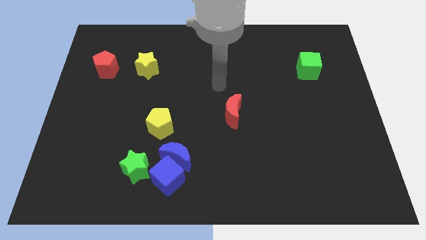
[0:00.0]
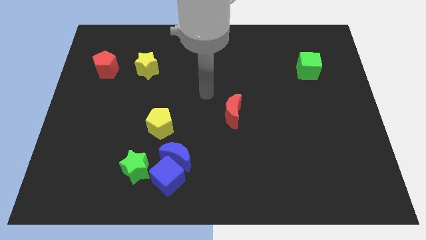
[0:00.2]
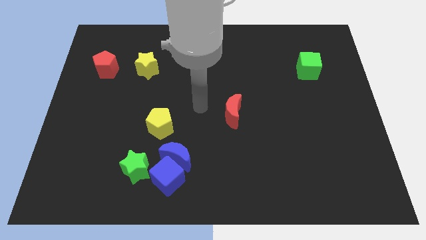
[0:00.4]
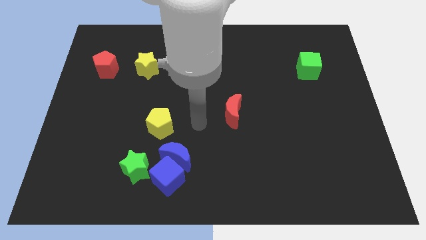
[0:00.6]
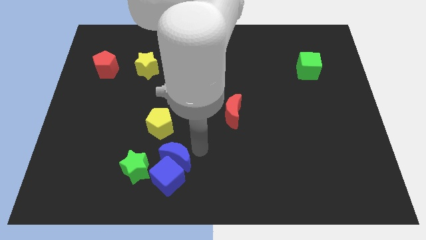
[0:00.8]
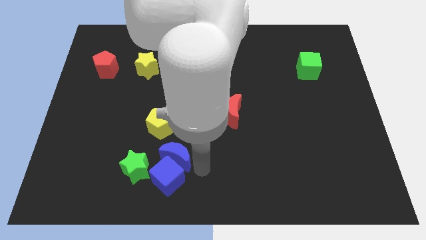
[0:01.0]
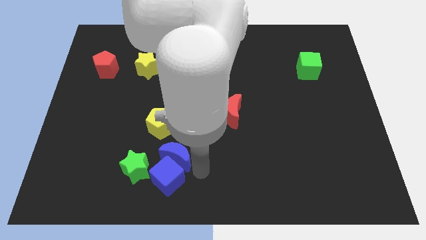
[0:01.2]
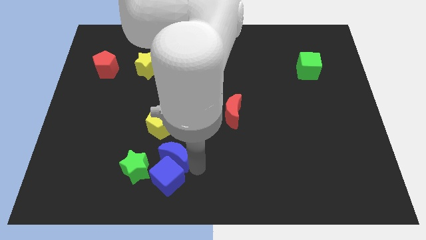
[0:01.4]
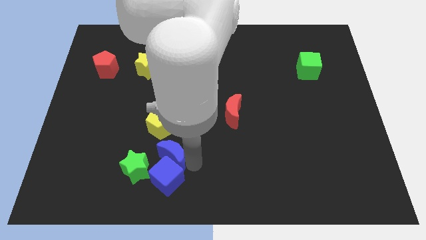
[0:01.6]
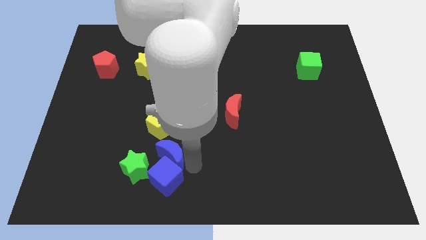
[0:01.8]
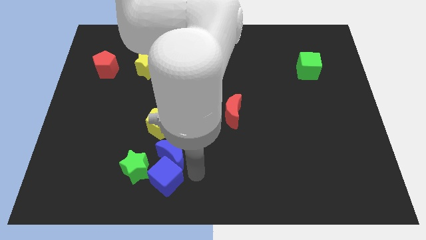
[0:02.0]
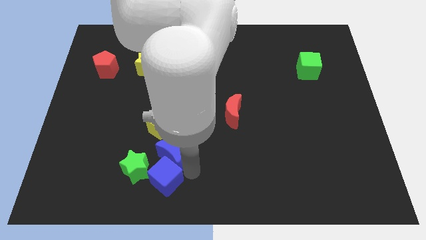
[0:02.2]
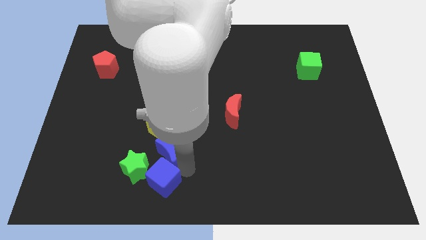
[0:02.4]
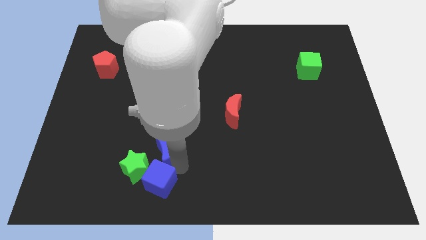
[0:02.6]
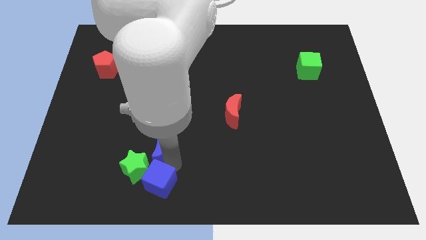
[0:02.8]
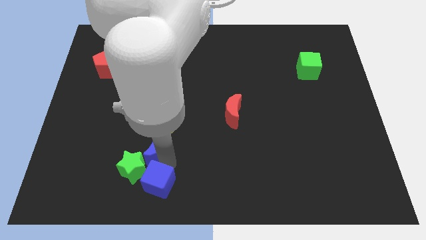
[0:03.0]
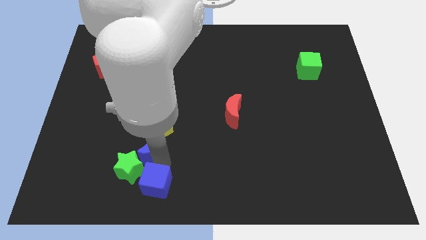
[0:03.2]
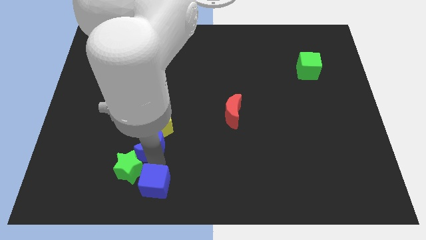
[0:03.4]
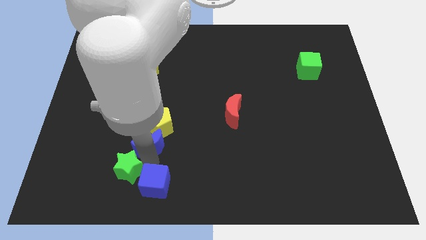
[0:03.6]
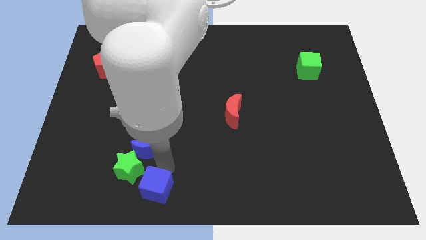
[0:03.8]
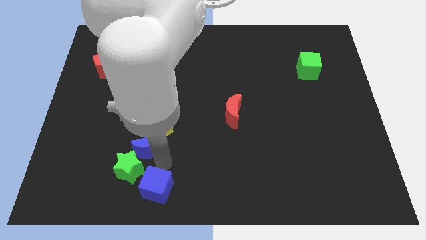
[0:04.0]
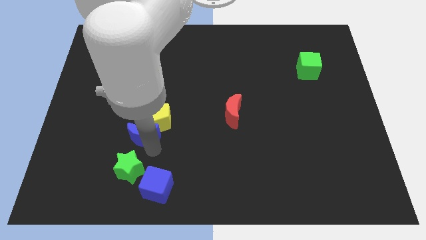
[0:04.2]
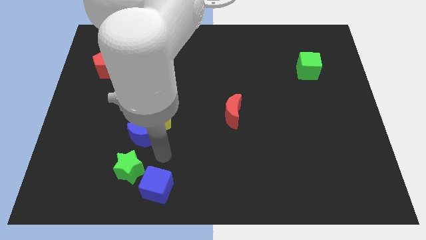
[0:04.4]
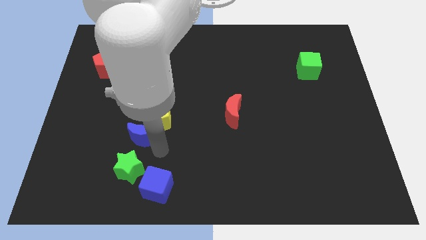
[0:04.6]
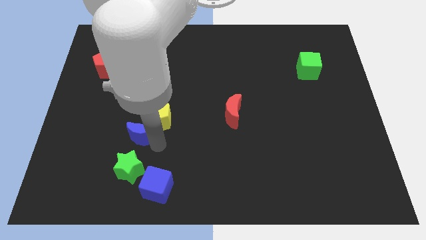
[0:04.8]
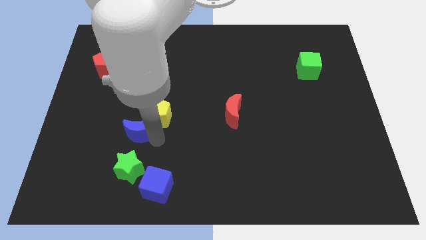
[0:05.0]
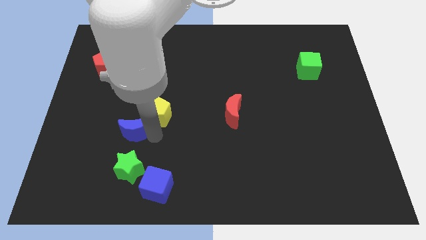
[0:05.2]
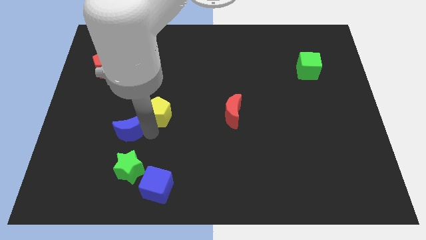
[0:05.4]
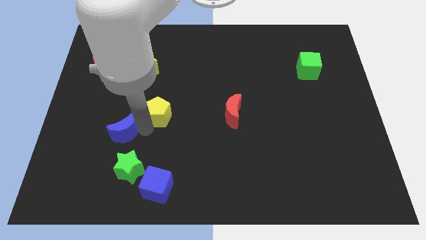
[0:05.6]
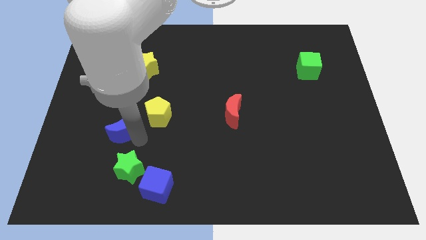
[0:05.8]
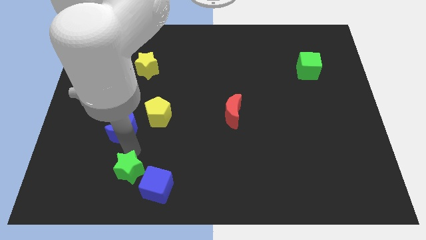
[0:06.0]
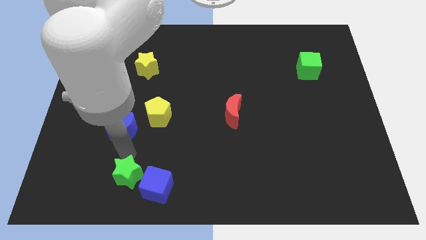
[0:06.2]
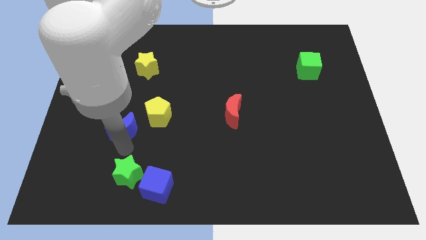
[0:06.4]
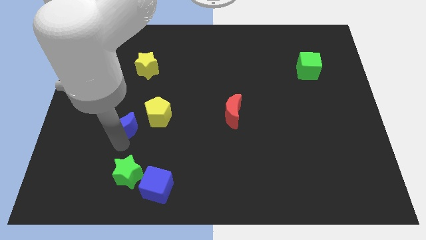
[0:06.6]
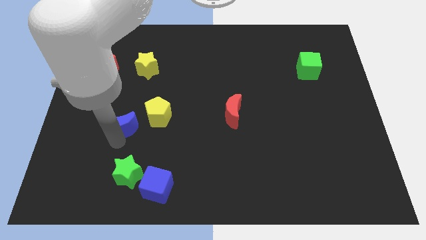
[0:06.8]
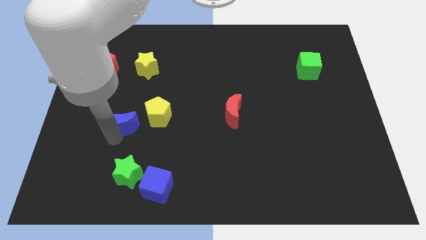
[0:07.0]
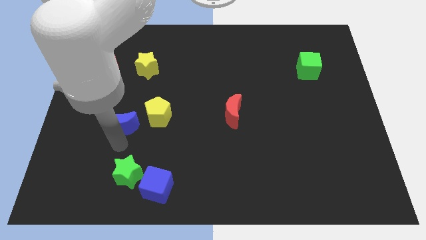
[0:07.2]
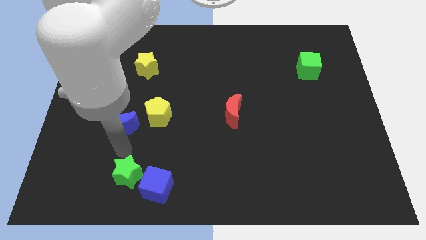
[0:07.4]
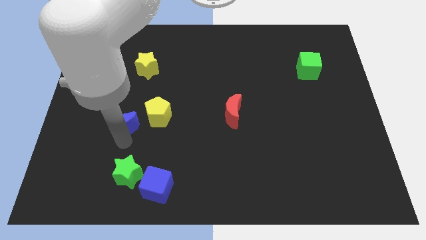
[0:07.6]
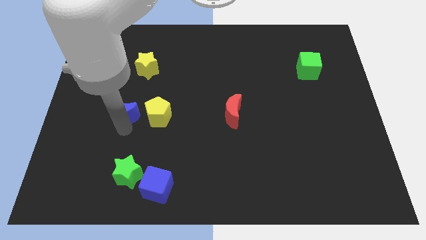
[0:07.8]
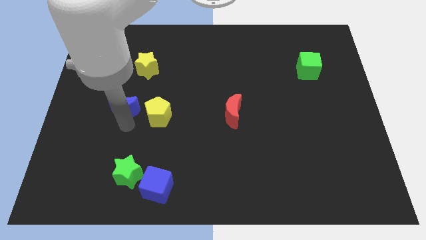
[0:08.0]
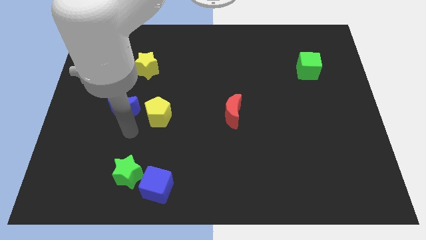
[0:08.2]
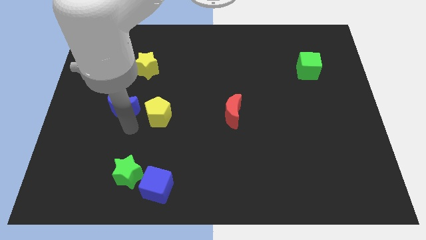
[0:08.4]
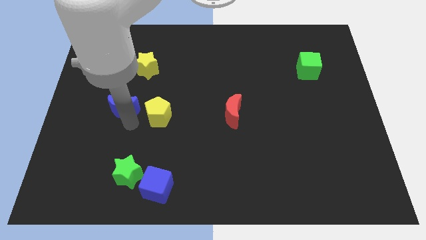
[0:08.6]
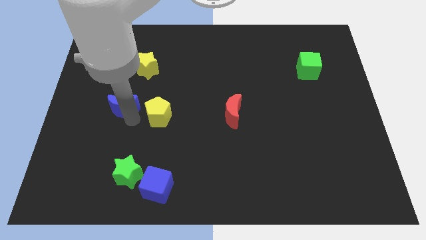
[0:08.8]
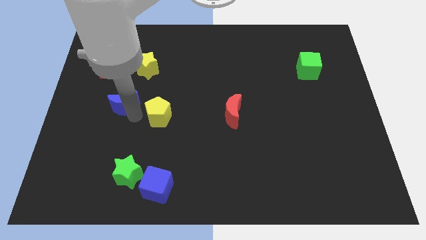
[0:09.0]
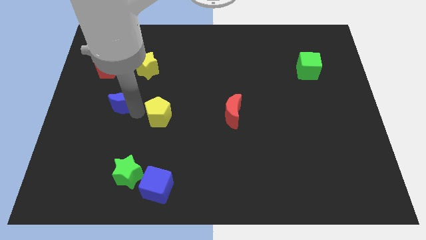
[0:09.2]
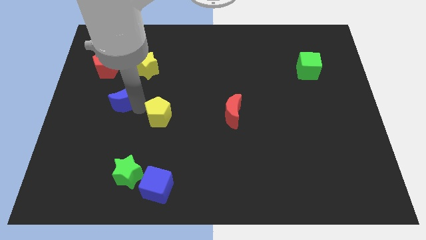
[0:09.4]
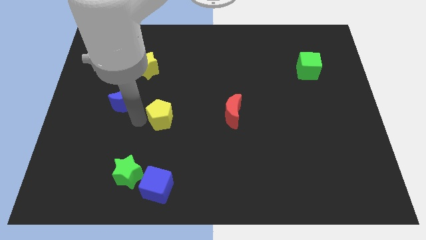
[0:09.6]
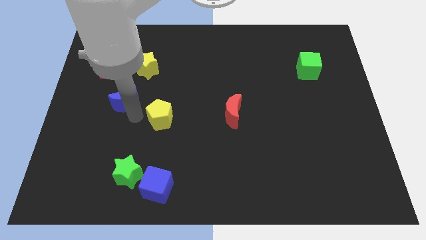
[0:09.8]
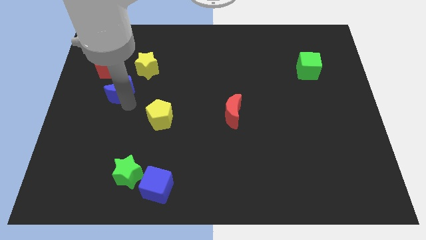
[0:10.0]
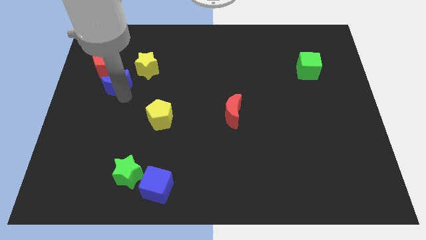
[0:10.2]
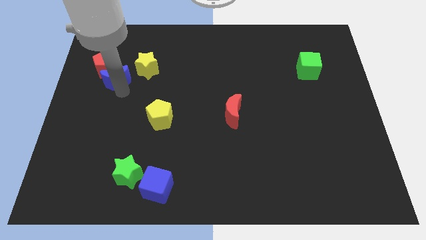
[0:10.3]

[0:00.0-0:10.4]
slide the blue moon to the red pentagon

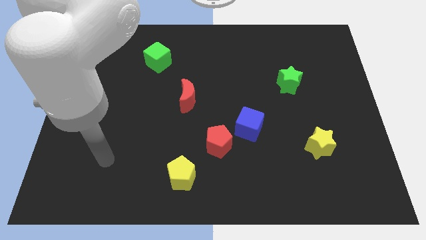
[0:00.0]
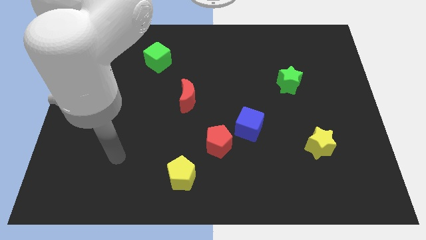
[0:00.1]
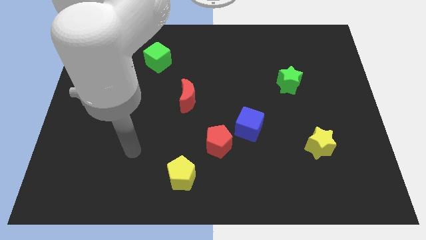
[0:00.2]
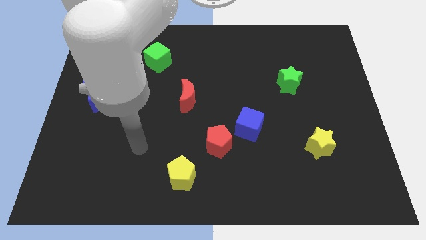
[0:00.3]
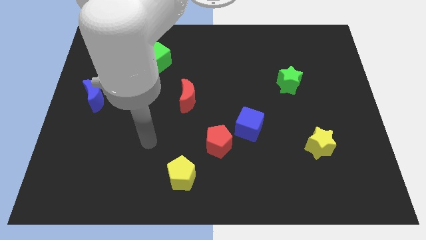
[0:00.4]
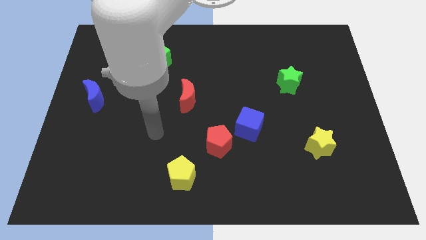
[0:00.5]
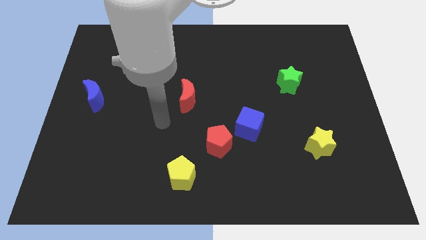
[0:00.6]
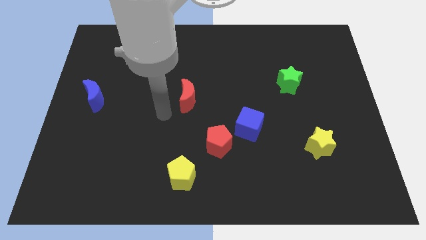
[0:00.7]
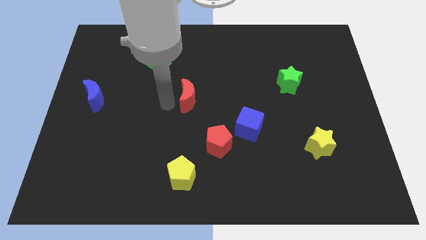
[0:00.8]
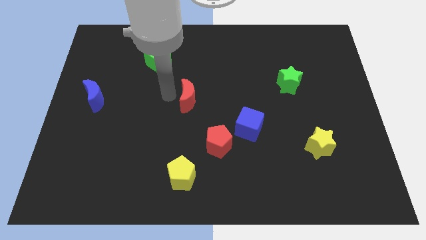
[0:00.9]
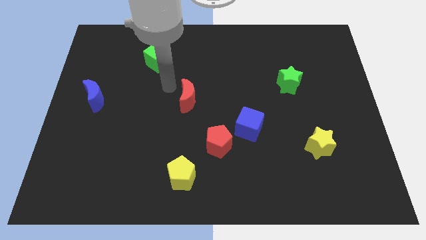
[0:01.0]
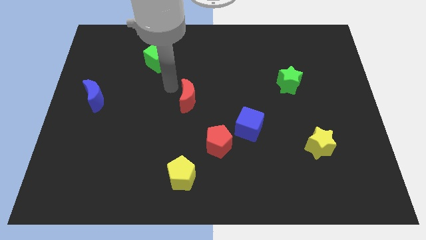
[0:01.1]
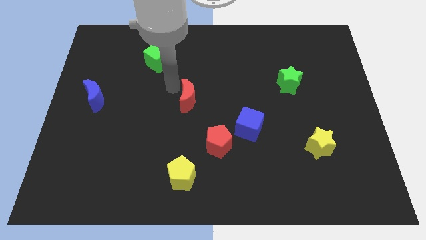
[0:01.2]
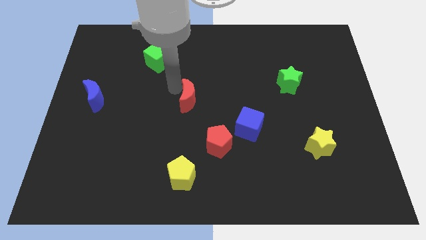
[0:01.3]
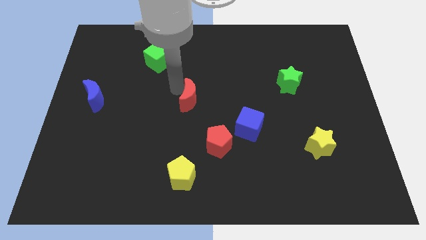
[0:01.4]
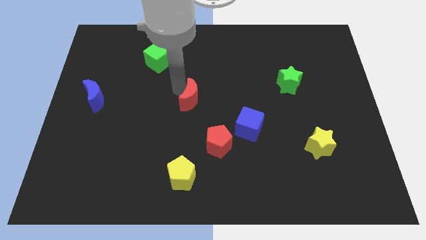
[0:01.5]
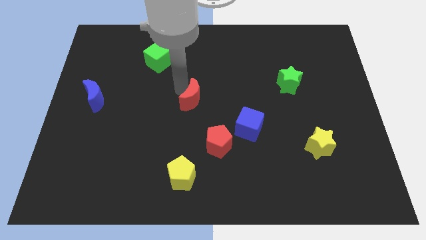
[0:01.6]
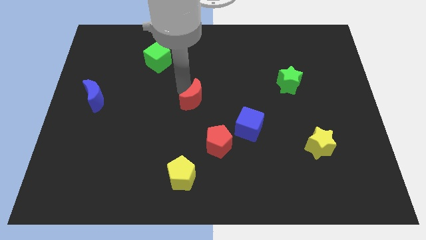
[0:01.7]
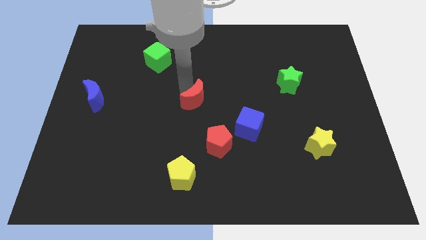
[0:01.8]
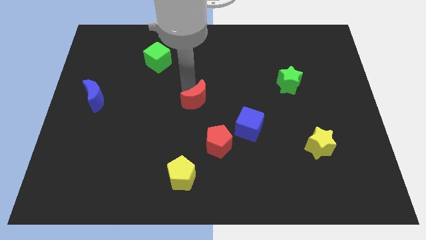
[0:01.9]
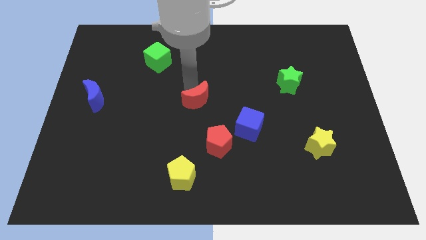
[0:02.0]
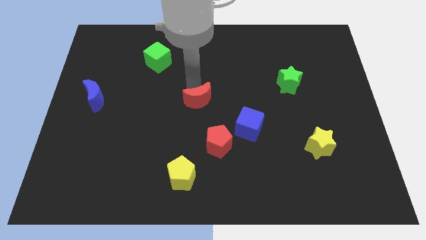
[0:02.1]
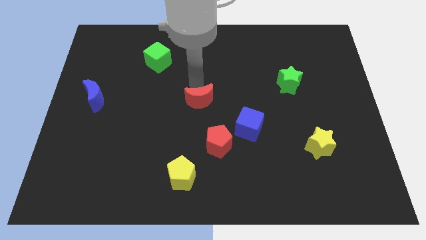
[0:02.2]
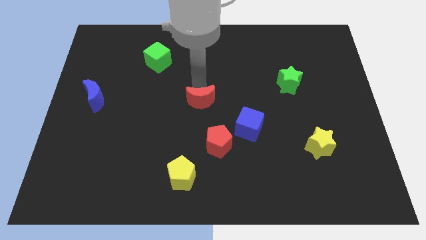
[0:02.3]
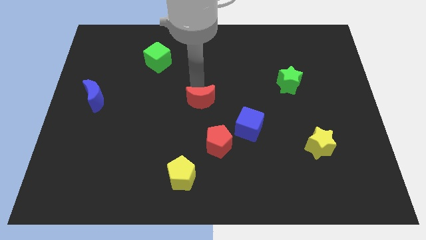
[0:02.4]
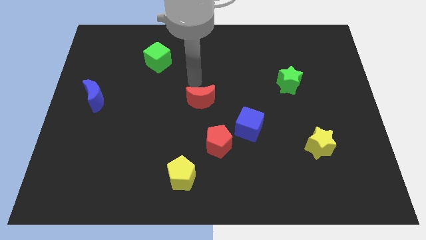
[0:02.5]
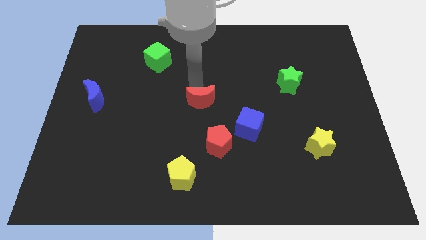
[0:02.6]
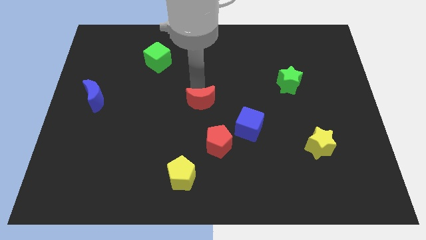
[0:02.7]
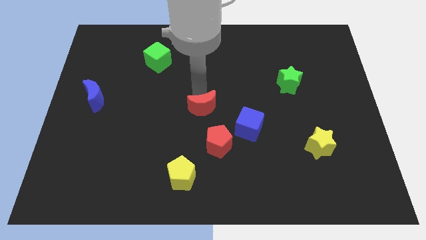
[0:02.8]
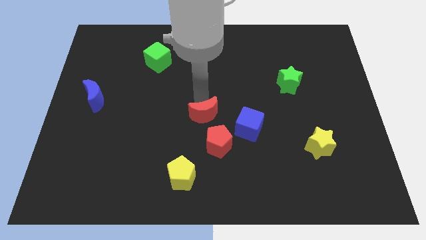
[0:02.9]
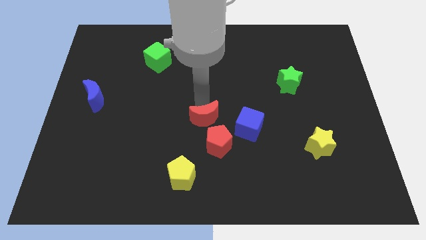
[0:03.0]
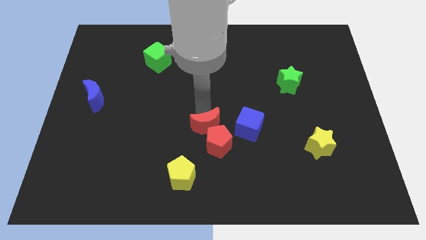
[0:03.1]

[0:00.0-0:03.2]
put the red moon close to the red pentagon
